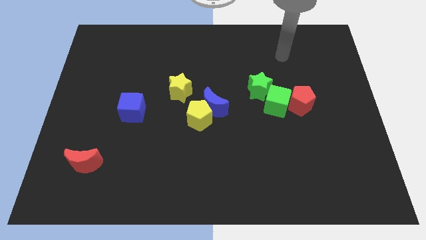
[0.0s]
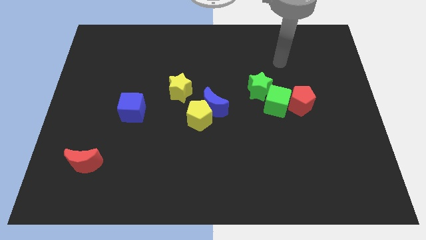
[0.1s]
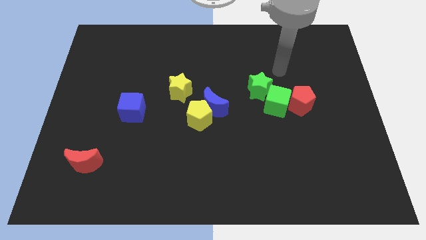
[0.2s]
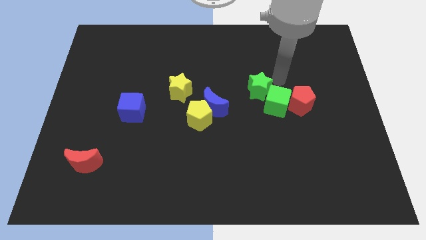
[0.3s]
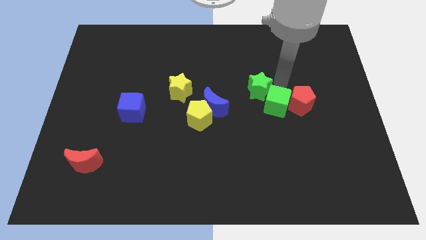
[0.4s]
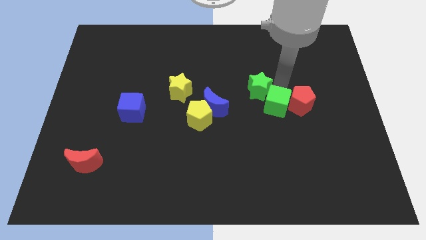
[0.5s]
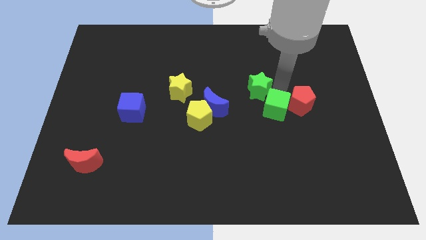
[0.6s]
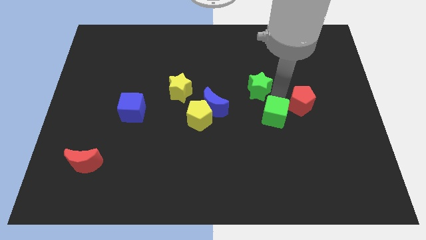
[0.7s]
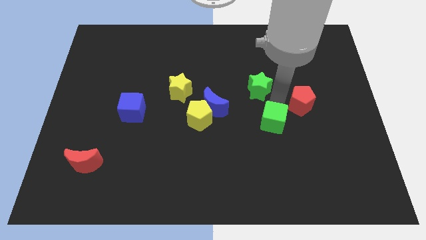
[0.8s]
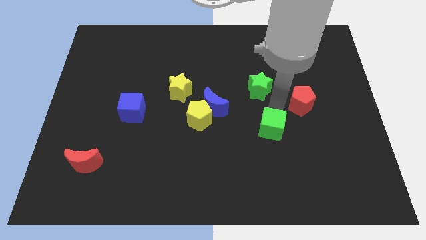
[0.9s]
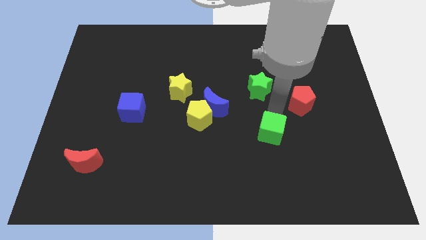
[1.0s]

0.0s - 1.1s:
move the green cube away from the red pentagon and green star

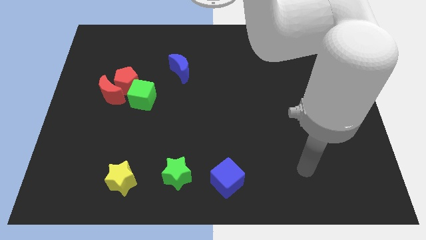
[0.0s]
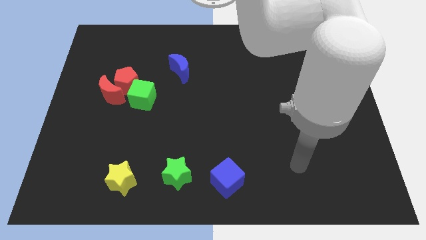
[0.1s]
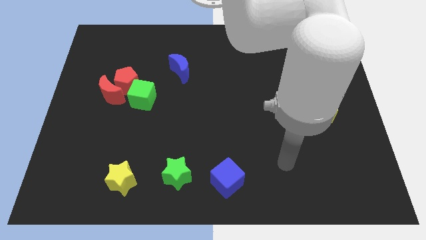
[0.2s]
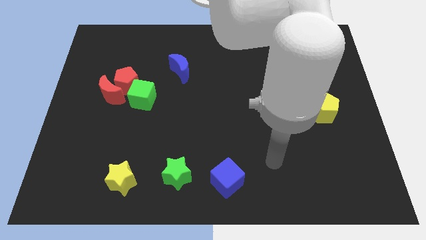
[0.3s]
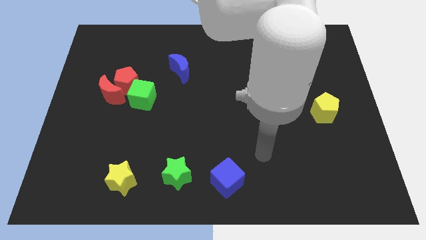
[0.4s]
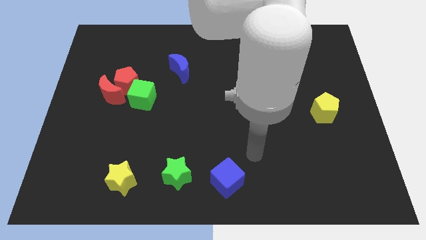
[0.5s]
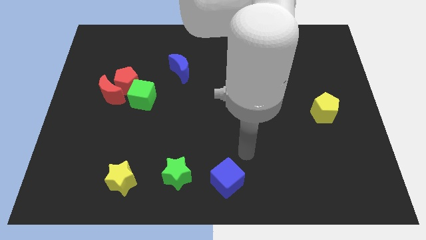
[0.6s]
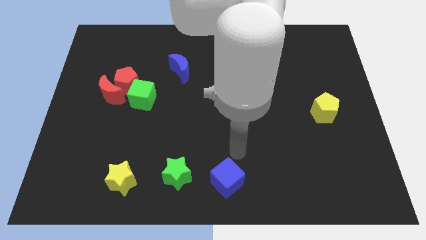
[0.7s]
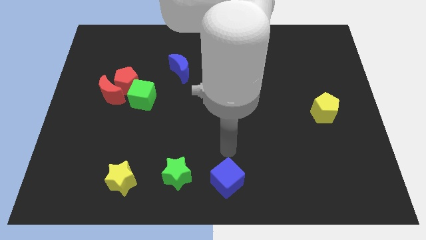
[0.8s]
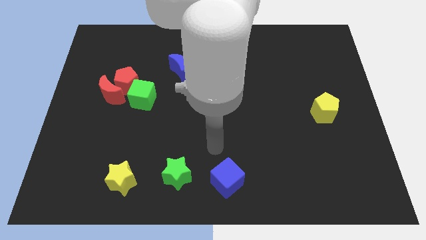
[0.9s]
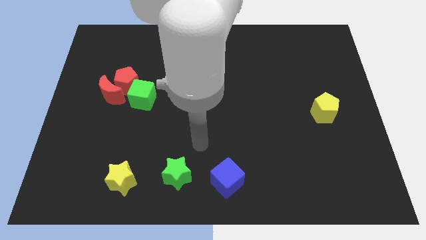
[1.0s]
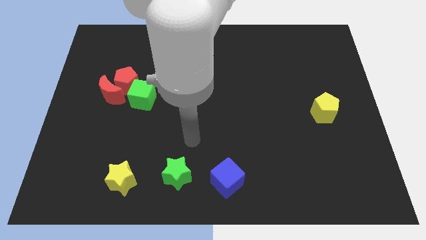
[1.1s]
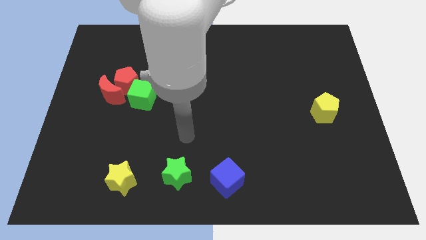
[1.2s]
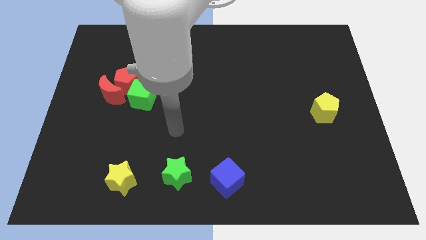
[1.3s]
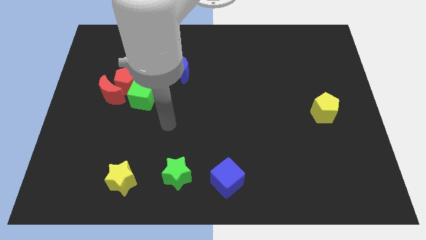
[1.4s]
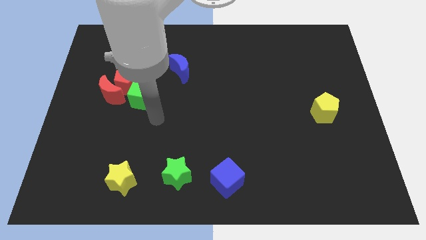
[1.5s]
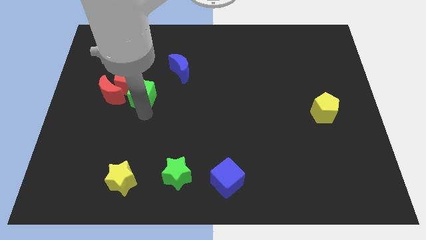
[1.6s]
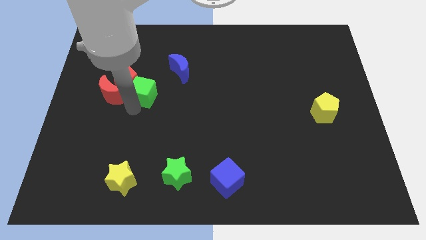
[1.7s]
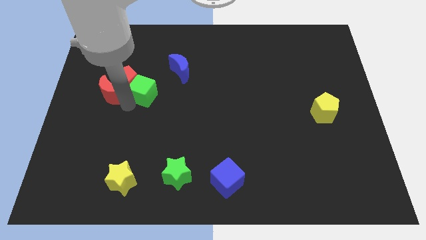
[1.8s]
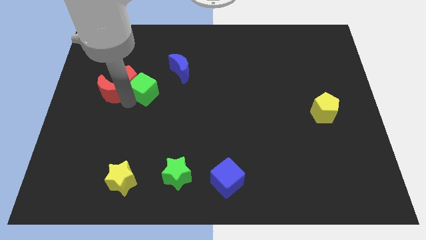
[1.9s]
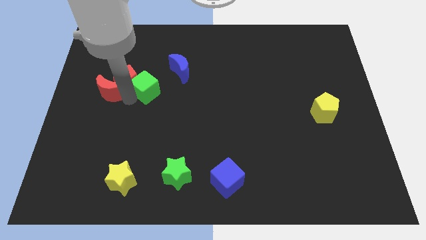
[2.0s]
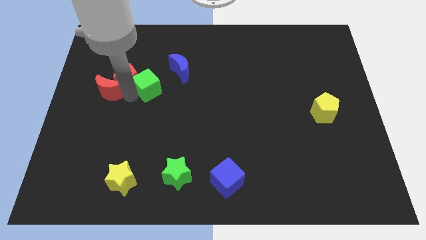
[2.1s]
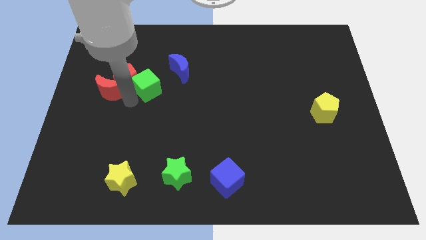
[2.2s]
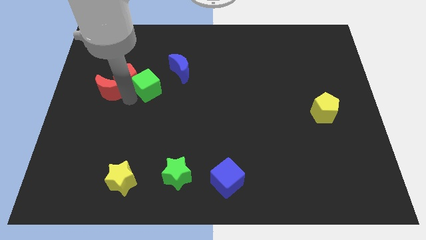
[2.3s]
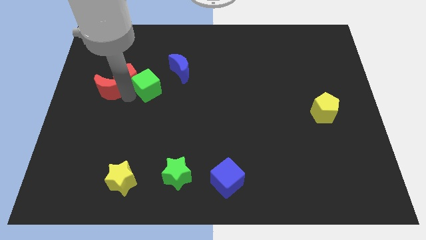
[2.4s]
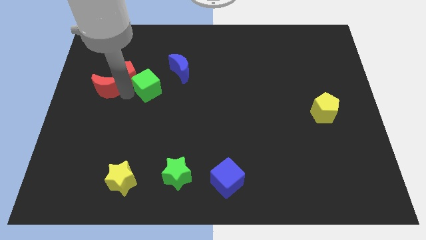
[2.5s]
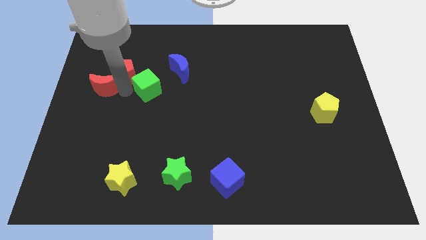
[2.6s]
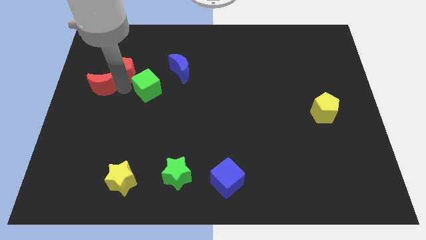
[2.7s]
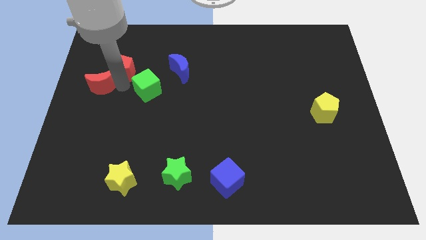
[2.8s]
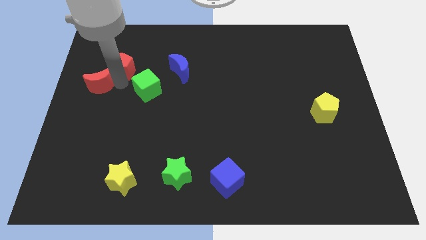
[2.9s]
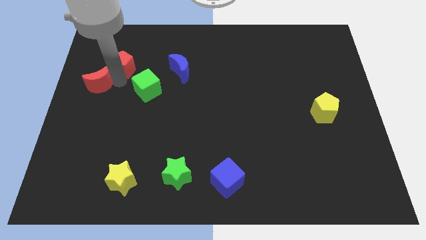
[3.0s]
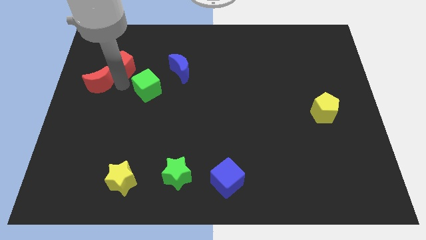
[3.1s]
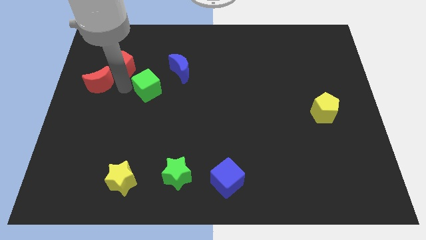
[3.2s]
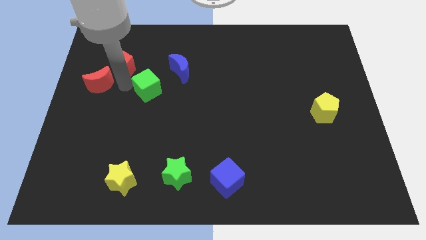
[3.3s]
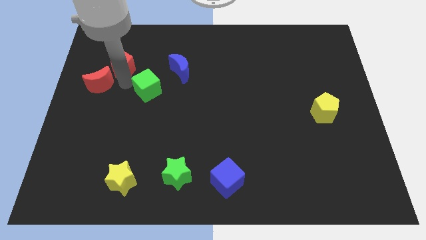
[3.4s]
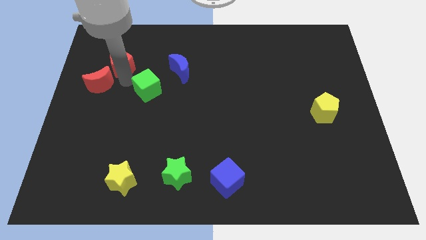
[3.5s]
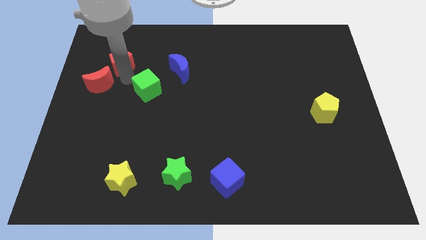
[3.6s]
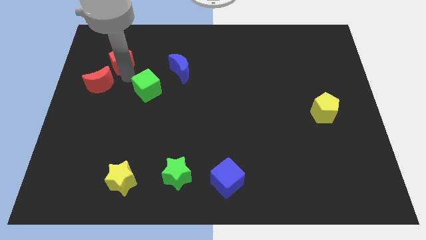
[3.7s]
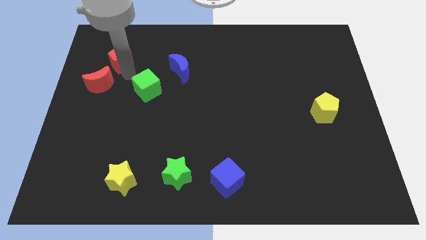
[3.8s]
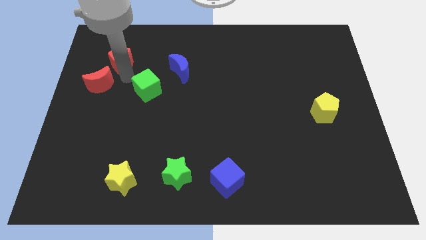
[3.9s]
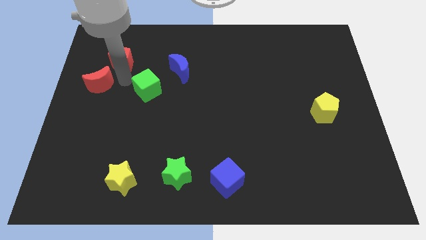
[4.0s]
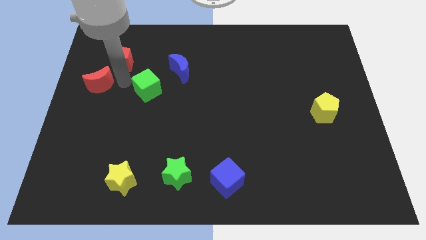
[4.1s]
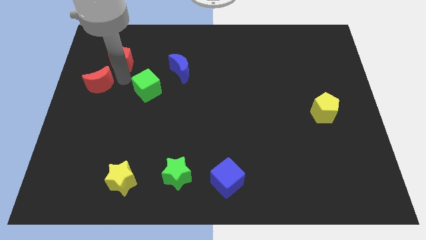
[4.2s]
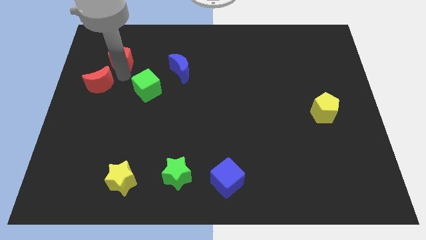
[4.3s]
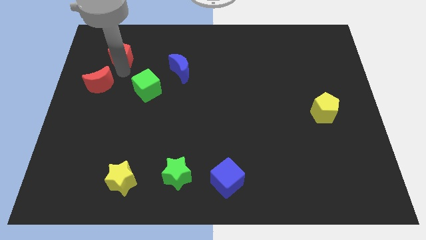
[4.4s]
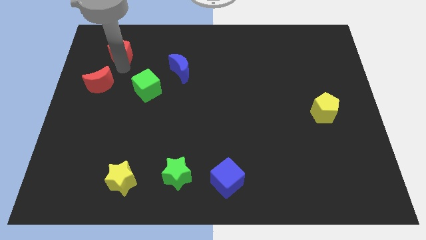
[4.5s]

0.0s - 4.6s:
pull the red pentagon apart from the red moon and green cube

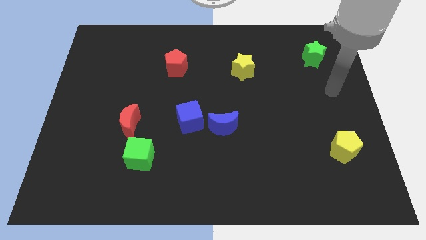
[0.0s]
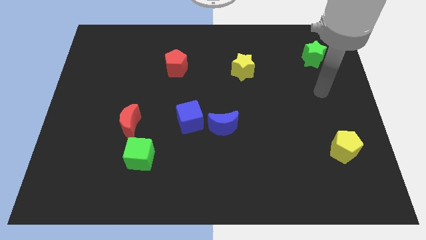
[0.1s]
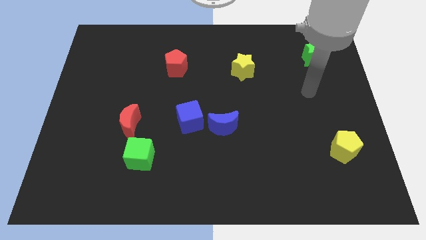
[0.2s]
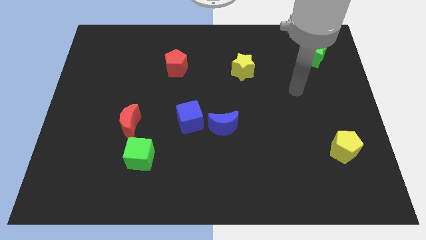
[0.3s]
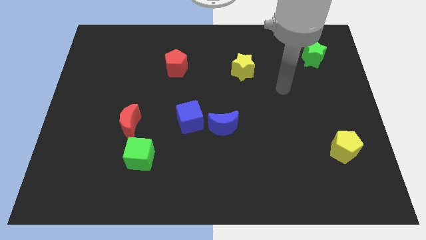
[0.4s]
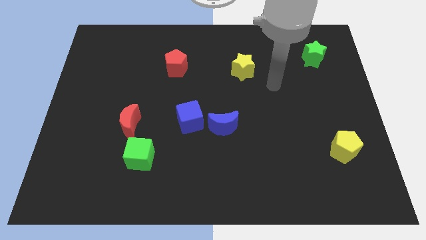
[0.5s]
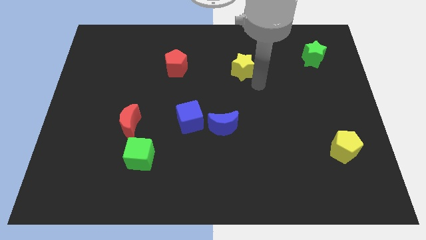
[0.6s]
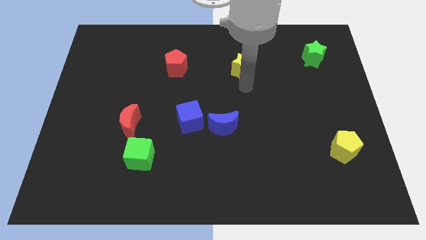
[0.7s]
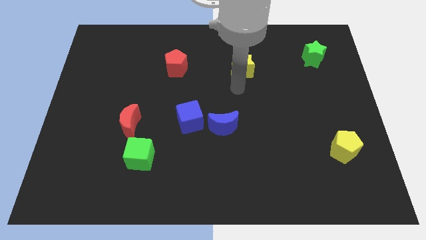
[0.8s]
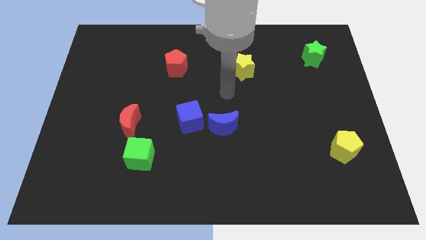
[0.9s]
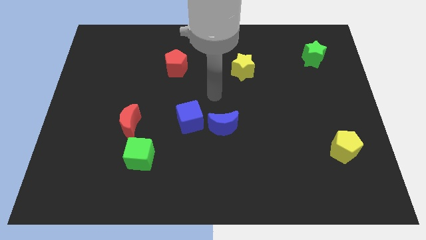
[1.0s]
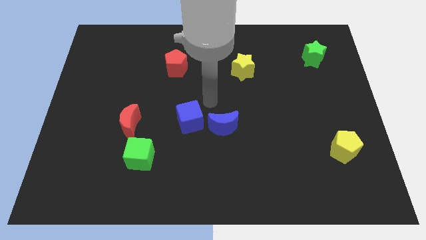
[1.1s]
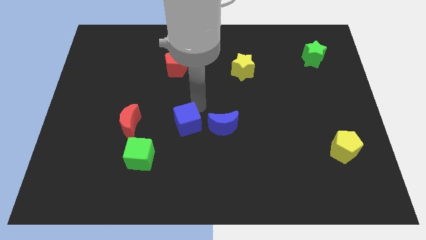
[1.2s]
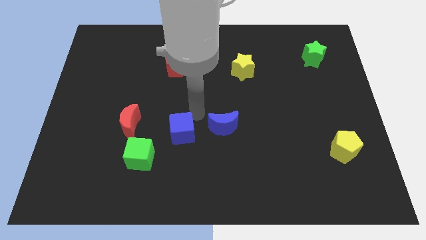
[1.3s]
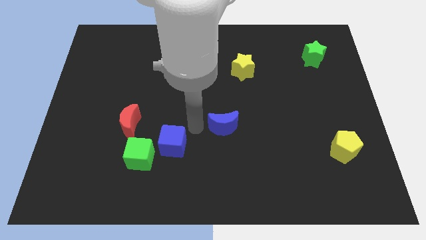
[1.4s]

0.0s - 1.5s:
pull the blue moon apart from the blue cube

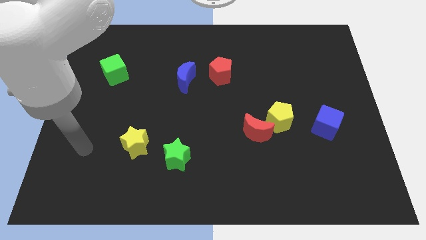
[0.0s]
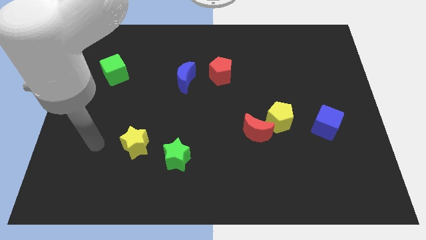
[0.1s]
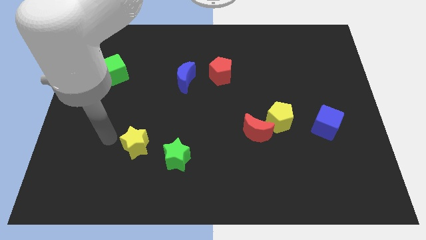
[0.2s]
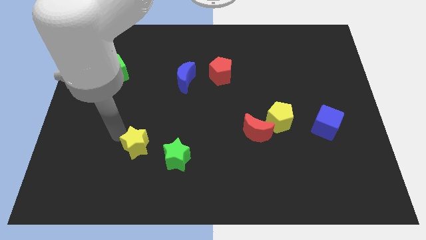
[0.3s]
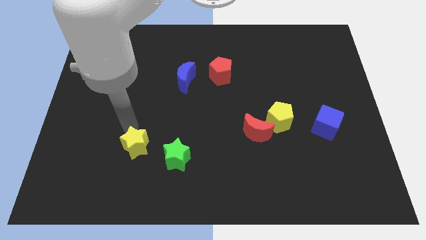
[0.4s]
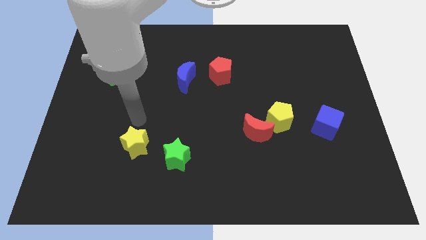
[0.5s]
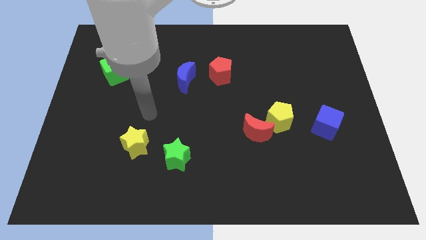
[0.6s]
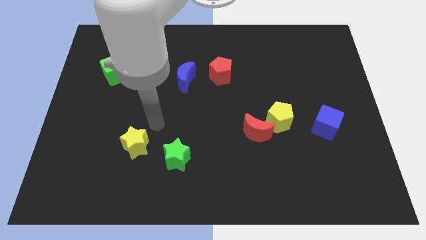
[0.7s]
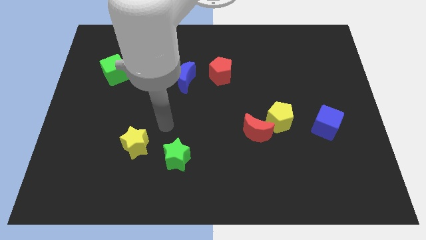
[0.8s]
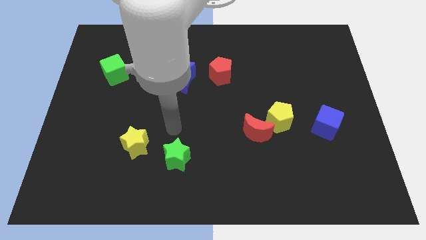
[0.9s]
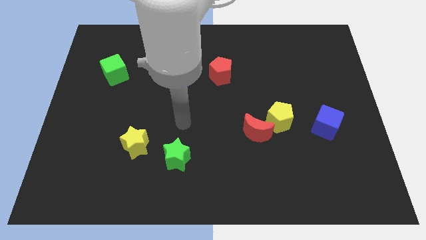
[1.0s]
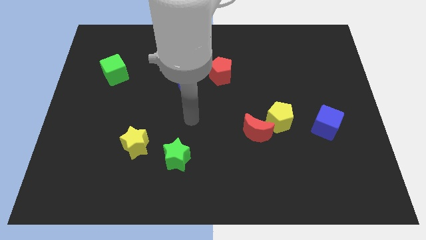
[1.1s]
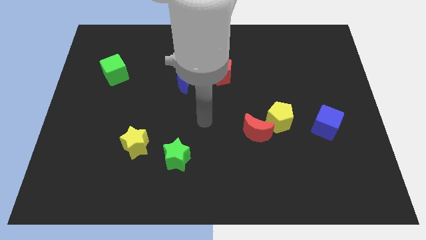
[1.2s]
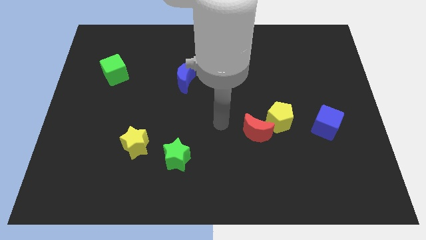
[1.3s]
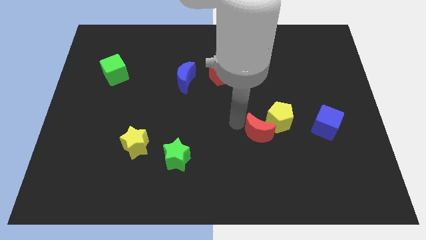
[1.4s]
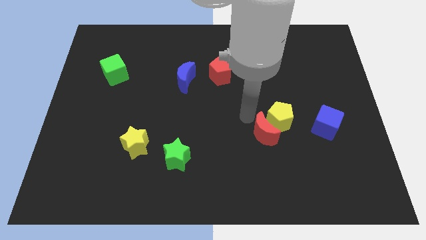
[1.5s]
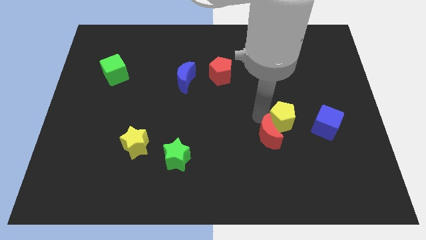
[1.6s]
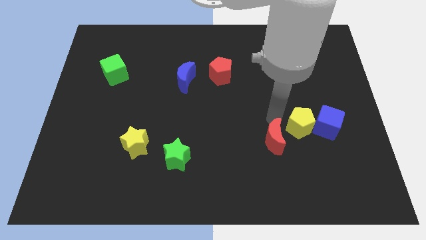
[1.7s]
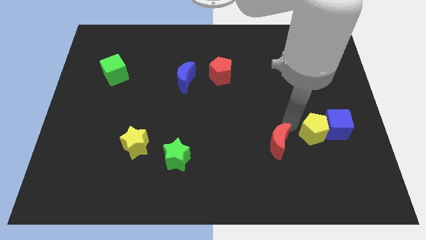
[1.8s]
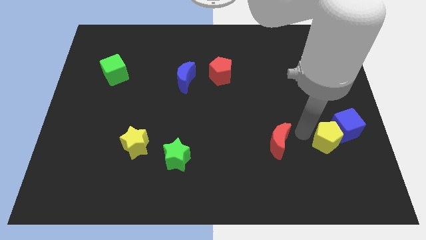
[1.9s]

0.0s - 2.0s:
separate the red moon from the yellow pentagon

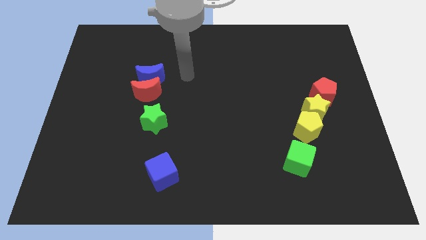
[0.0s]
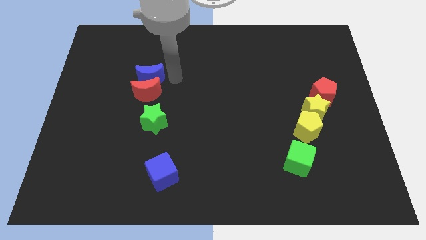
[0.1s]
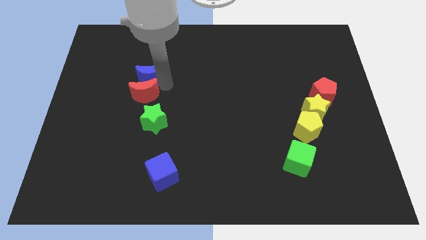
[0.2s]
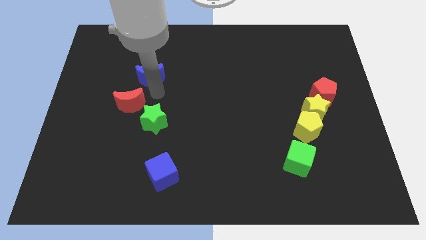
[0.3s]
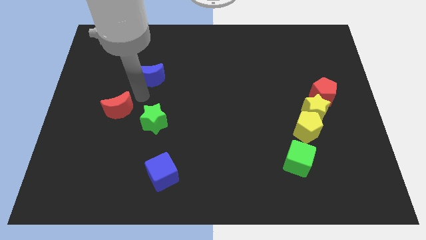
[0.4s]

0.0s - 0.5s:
pull the blue moon apart from the red moon
